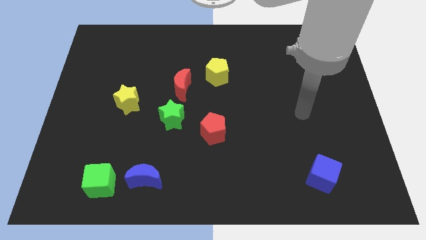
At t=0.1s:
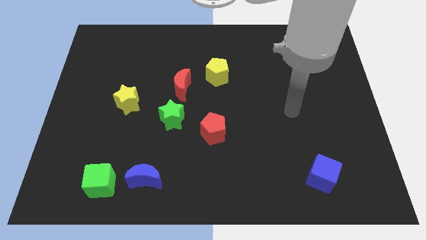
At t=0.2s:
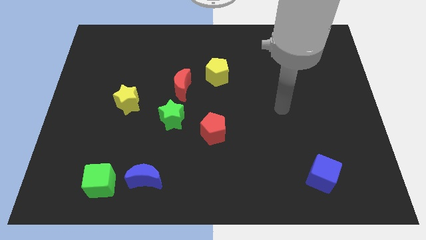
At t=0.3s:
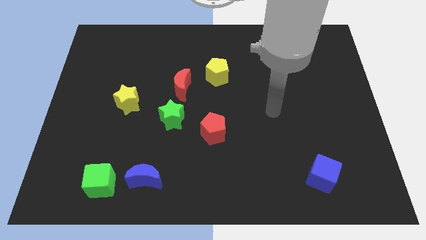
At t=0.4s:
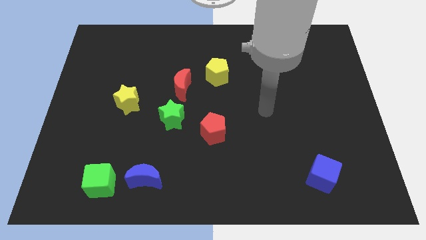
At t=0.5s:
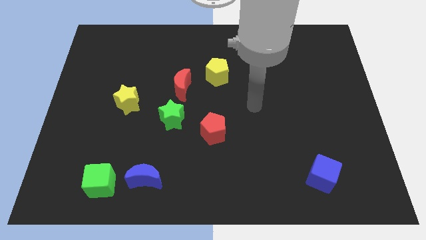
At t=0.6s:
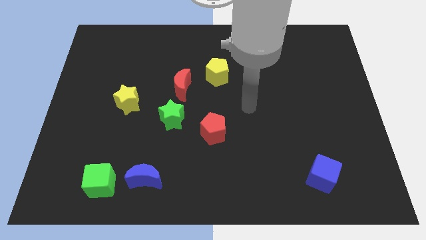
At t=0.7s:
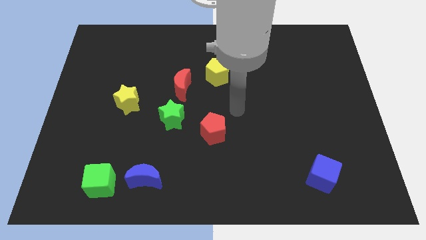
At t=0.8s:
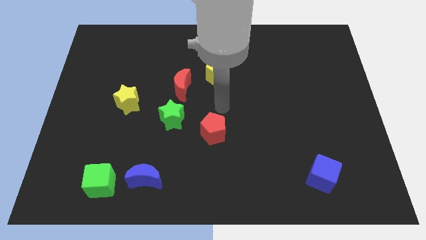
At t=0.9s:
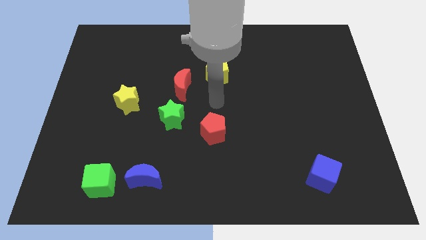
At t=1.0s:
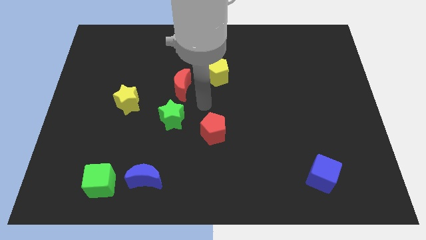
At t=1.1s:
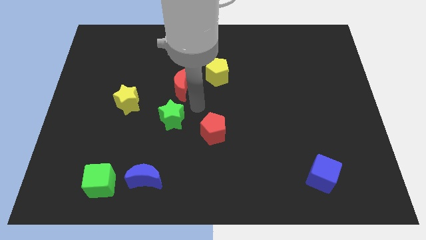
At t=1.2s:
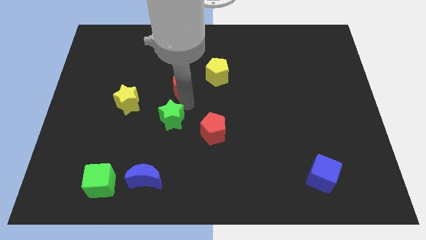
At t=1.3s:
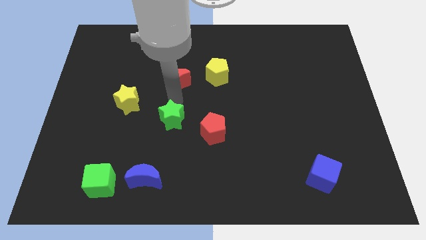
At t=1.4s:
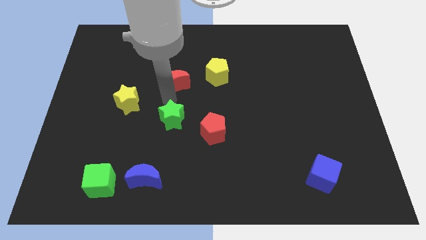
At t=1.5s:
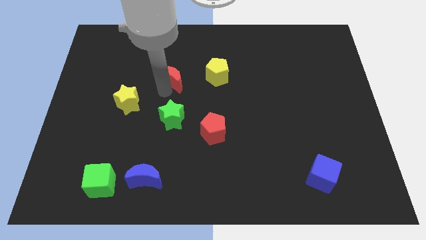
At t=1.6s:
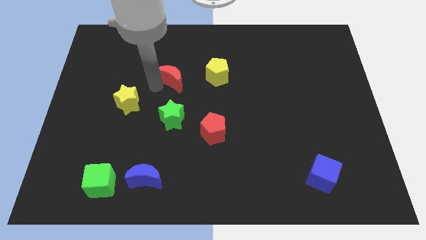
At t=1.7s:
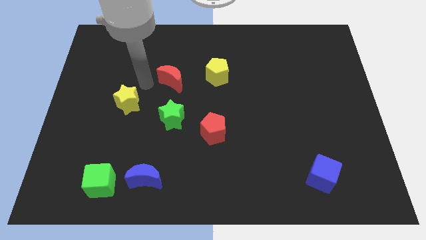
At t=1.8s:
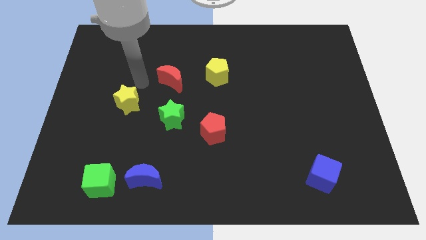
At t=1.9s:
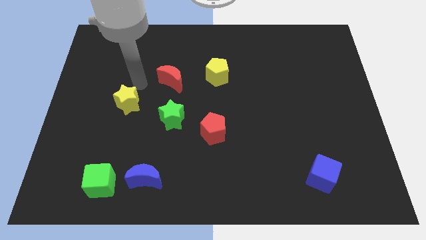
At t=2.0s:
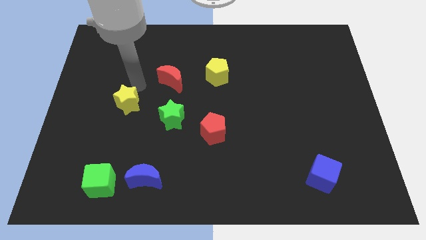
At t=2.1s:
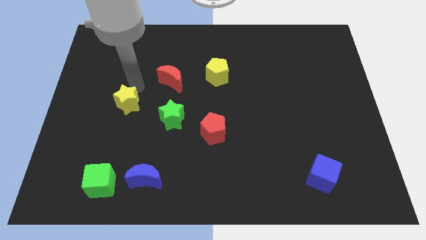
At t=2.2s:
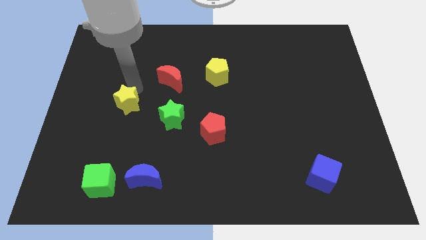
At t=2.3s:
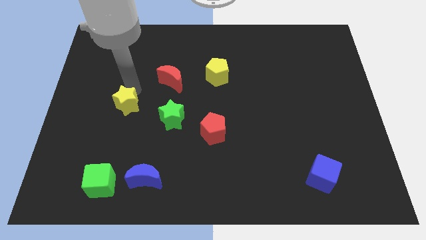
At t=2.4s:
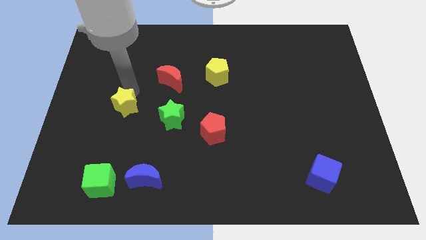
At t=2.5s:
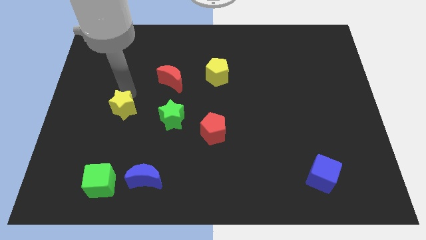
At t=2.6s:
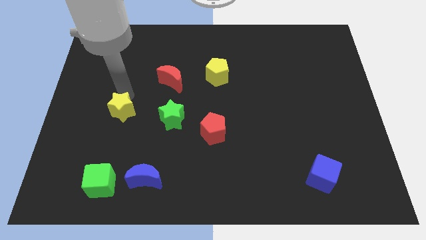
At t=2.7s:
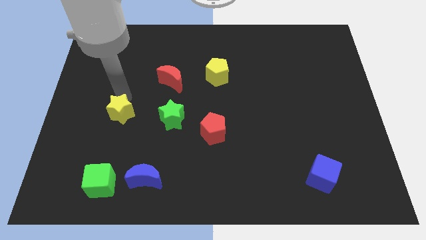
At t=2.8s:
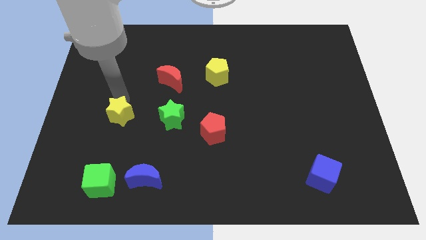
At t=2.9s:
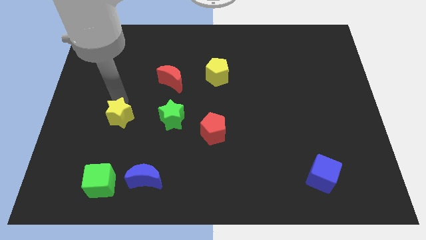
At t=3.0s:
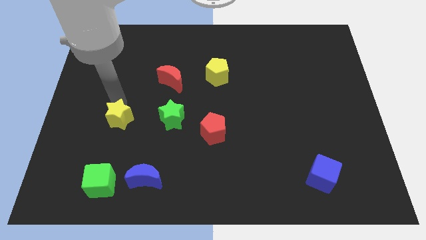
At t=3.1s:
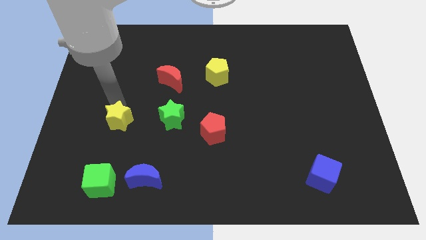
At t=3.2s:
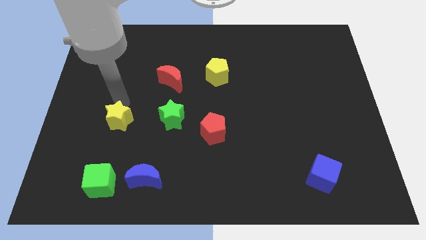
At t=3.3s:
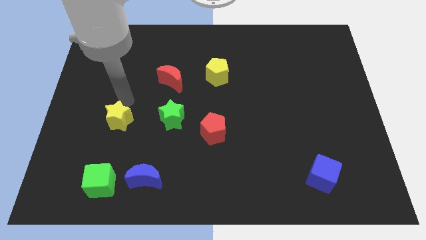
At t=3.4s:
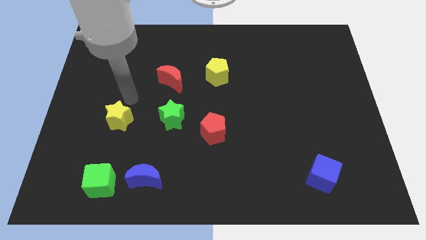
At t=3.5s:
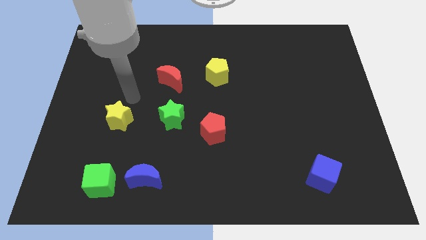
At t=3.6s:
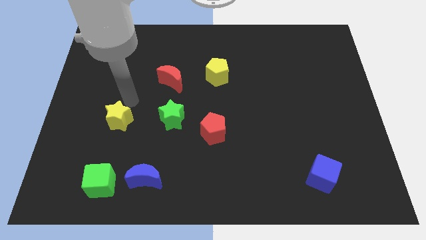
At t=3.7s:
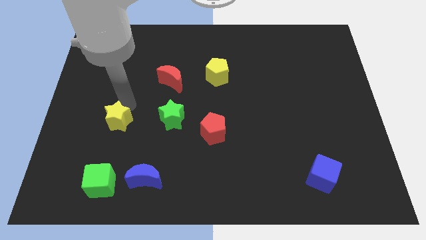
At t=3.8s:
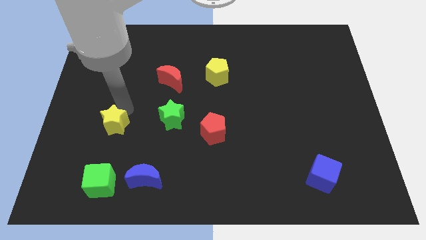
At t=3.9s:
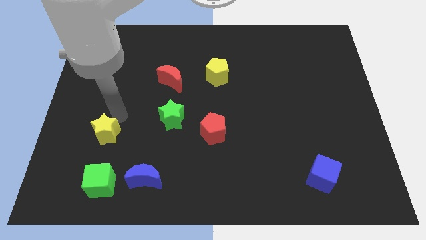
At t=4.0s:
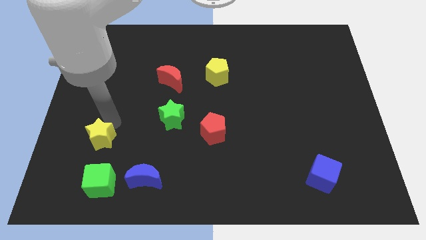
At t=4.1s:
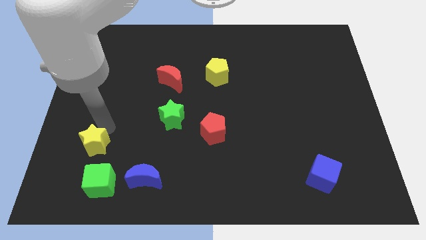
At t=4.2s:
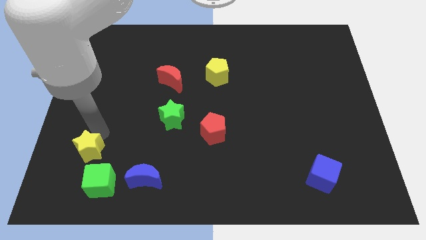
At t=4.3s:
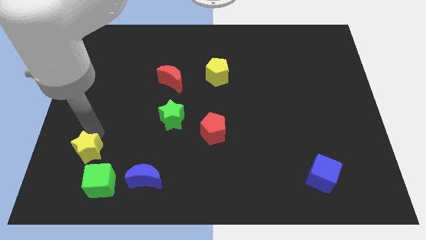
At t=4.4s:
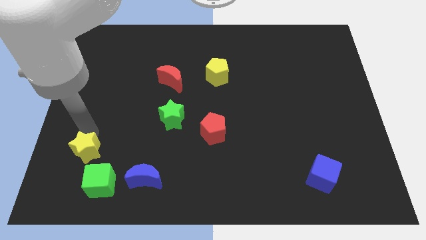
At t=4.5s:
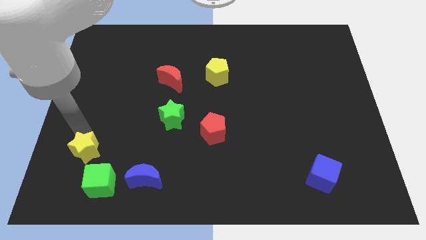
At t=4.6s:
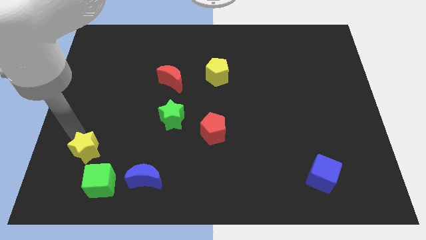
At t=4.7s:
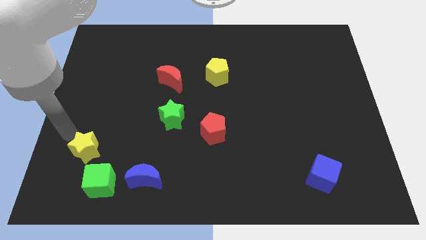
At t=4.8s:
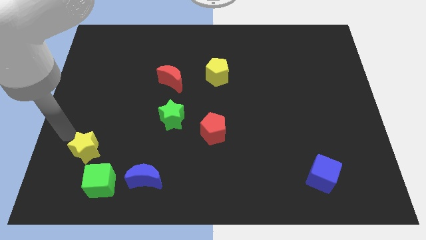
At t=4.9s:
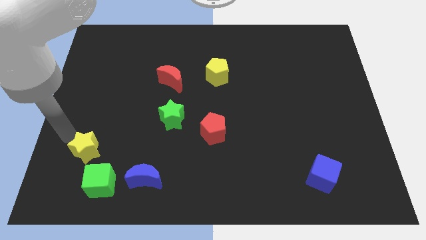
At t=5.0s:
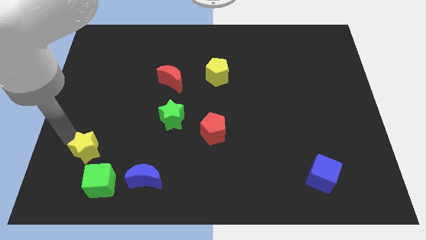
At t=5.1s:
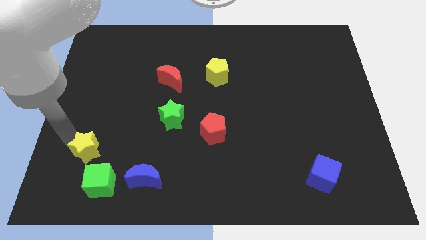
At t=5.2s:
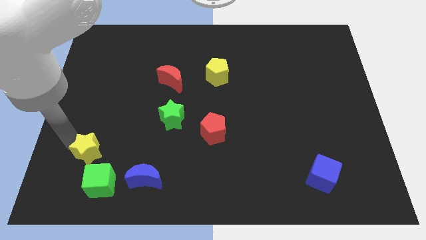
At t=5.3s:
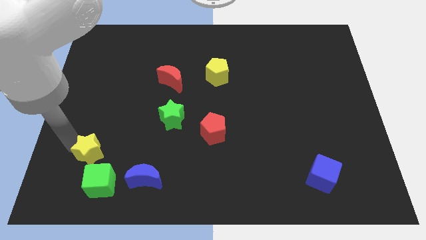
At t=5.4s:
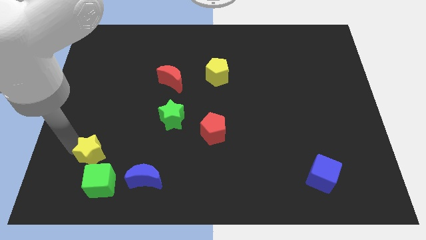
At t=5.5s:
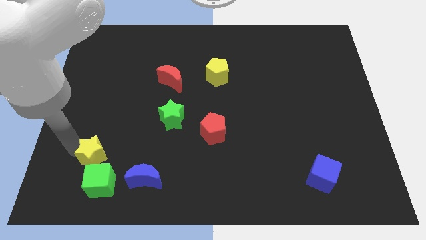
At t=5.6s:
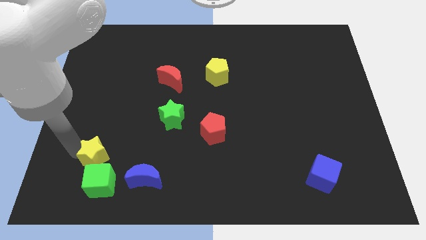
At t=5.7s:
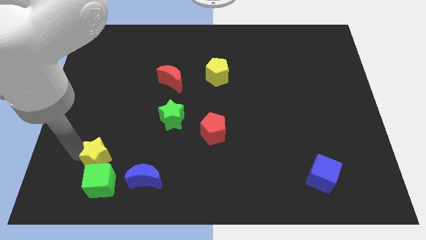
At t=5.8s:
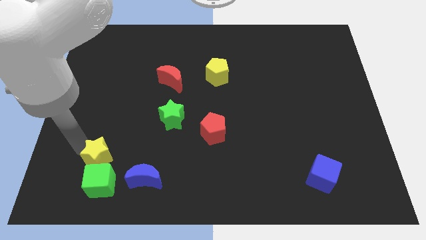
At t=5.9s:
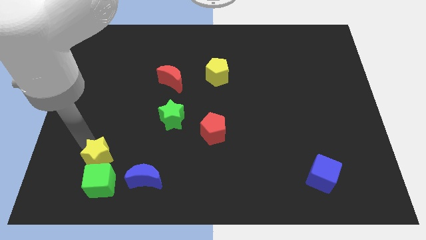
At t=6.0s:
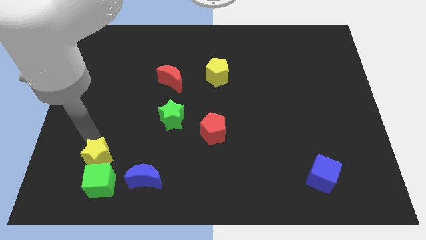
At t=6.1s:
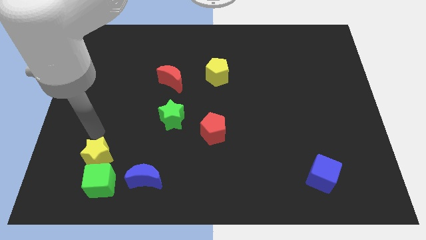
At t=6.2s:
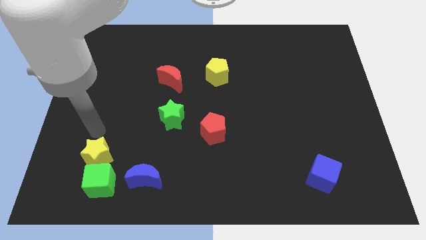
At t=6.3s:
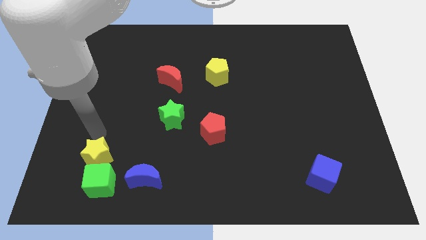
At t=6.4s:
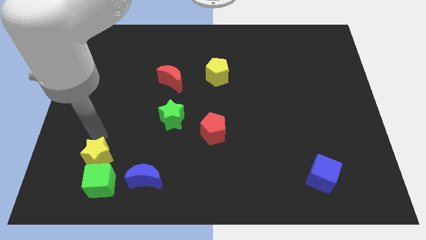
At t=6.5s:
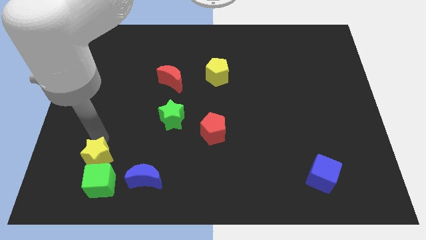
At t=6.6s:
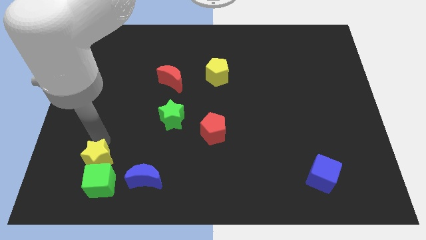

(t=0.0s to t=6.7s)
put the yellow star towards the green cube

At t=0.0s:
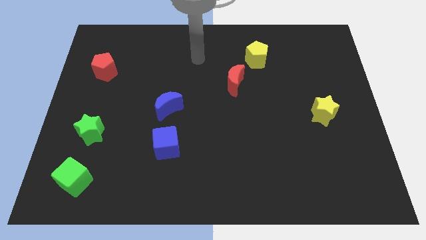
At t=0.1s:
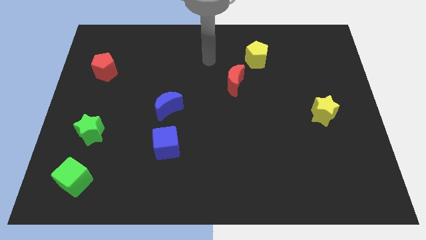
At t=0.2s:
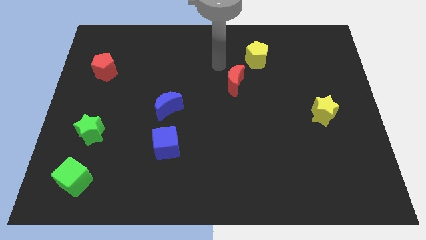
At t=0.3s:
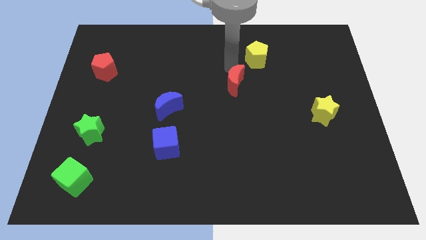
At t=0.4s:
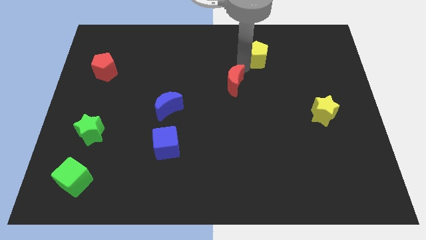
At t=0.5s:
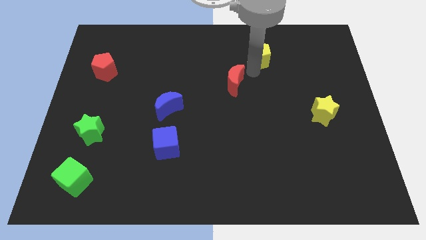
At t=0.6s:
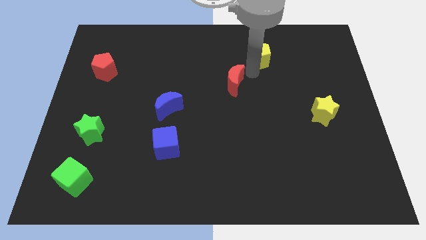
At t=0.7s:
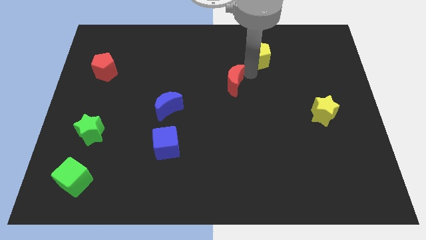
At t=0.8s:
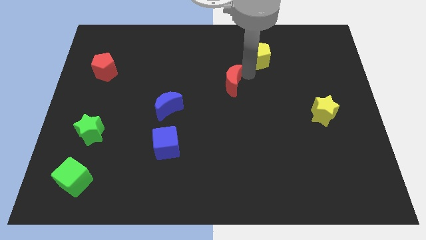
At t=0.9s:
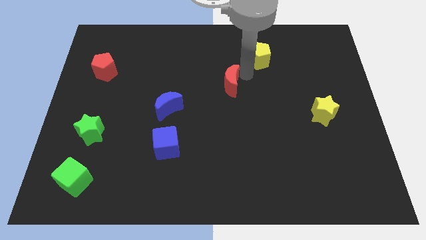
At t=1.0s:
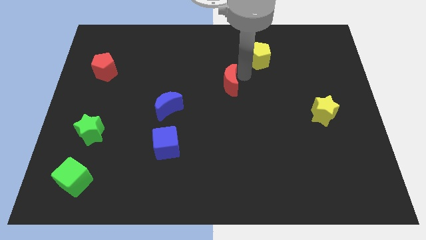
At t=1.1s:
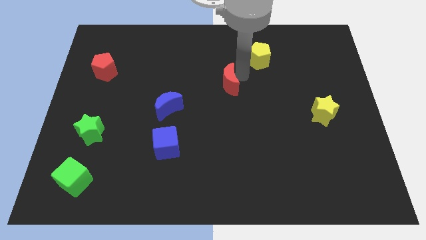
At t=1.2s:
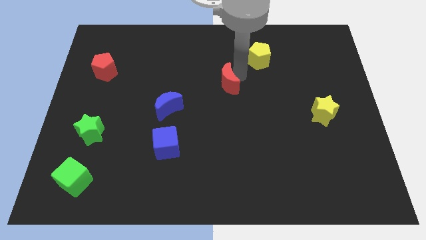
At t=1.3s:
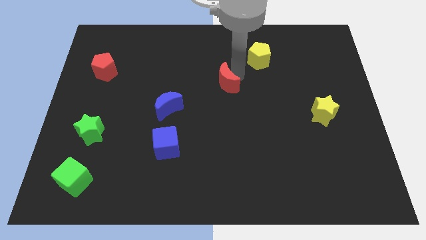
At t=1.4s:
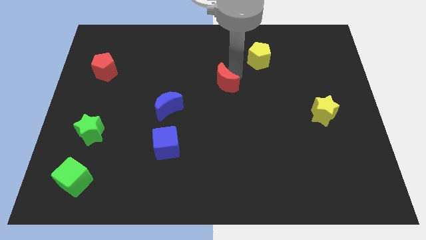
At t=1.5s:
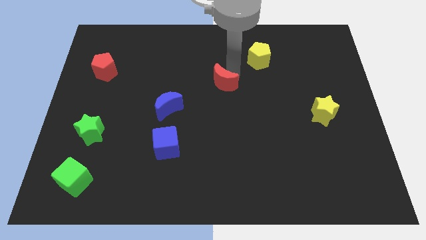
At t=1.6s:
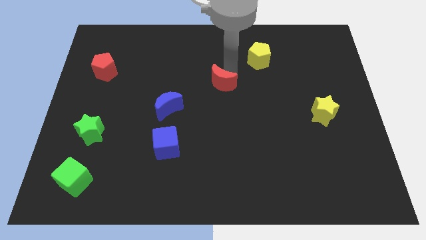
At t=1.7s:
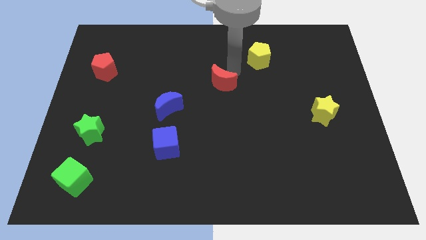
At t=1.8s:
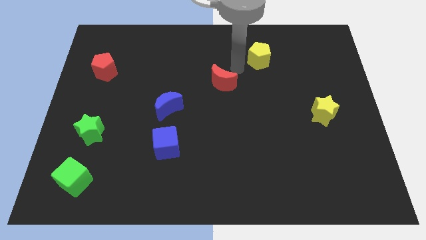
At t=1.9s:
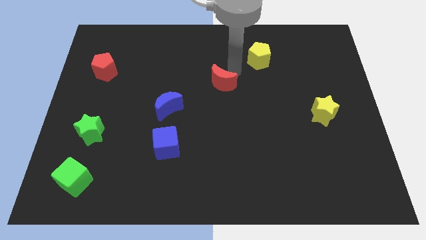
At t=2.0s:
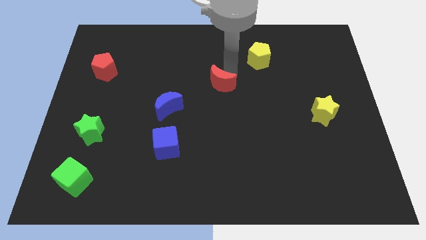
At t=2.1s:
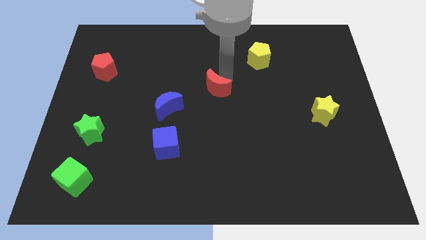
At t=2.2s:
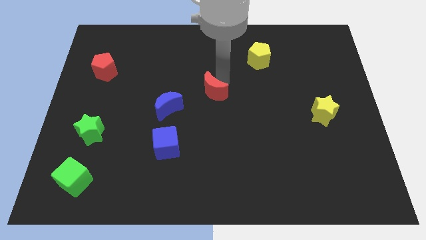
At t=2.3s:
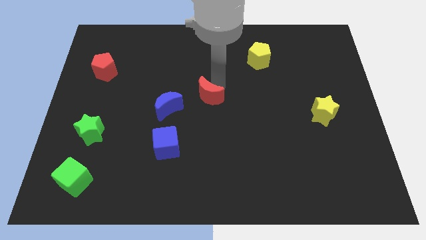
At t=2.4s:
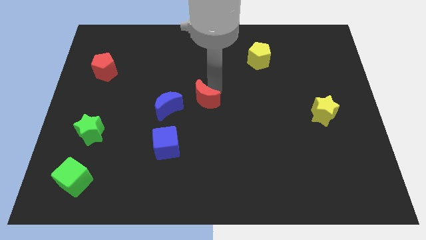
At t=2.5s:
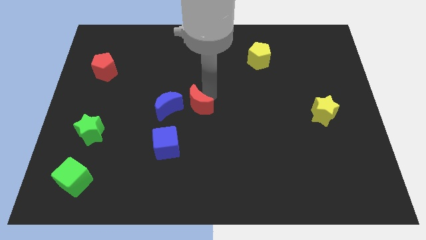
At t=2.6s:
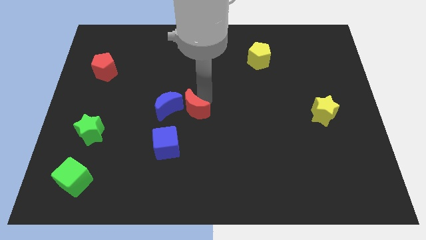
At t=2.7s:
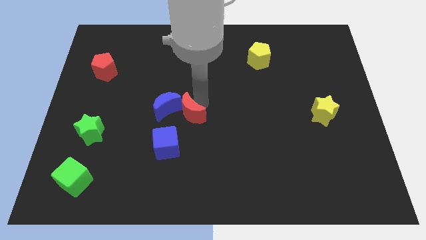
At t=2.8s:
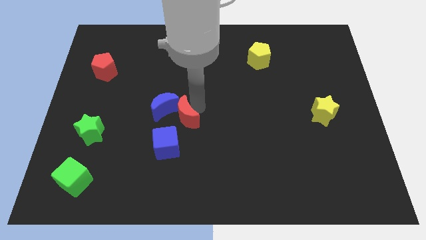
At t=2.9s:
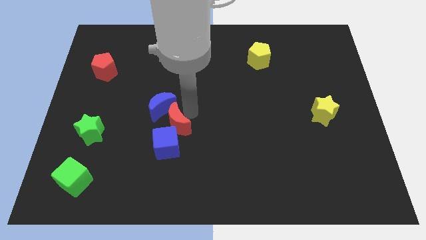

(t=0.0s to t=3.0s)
slide the red moon next to the blue cube
